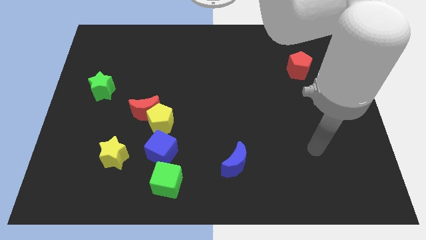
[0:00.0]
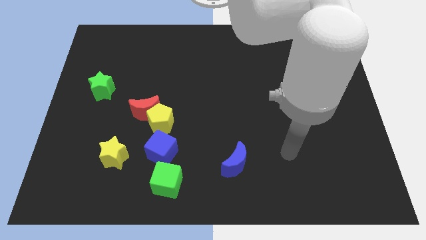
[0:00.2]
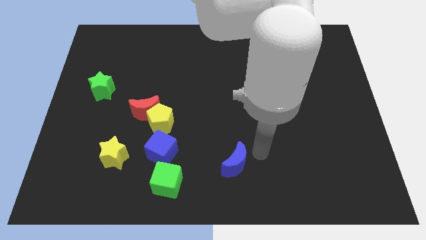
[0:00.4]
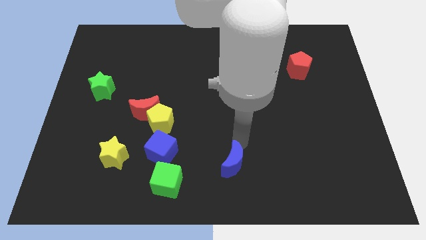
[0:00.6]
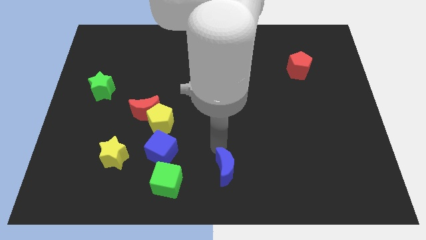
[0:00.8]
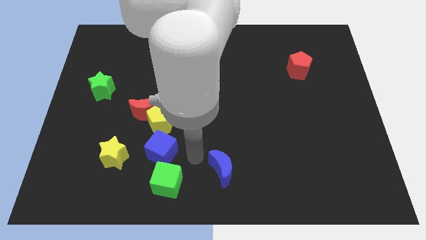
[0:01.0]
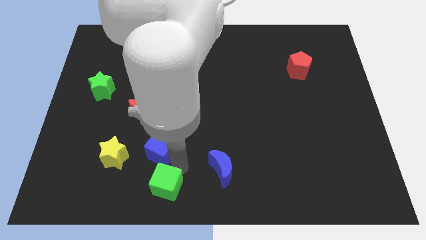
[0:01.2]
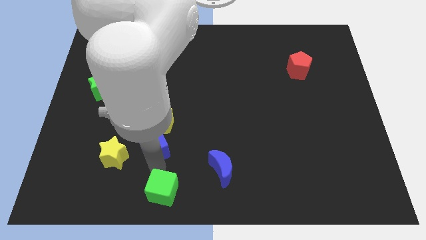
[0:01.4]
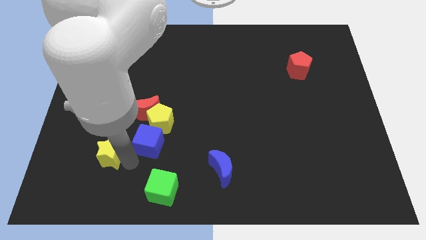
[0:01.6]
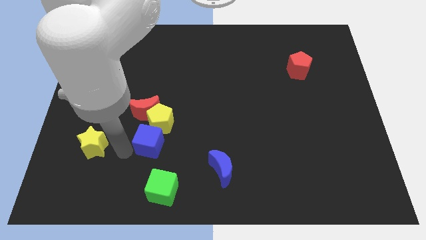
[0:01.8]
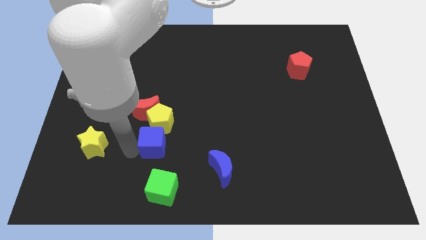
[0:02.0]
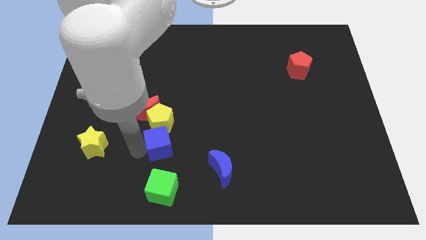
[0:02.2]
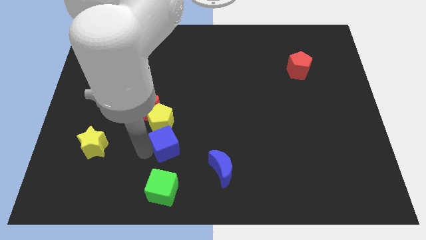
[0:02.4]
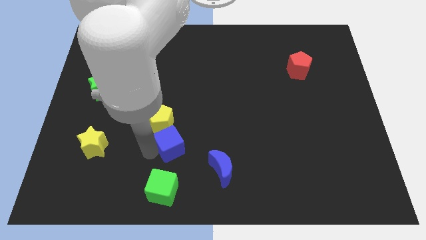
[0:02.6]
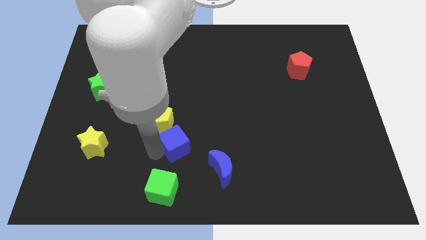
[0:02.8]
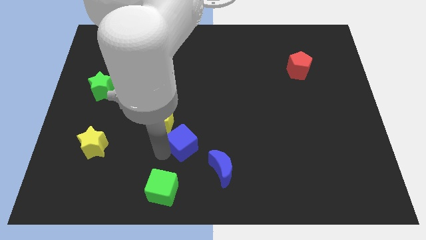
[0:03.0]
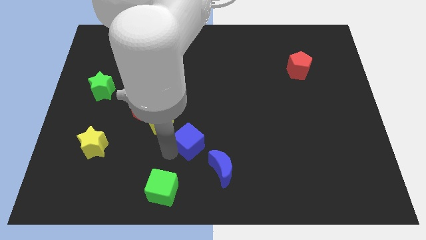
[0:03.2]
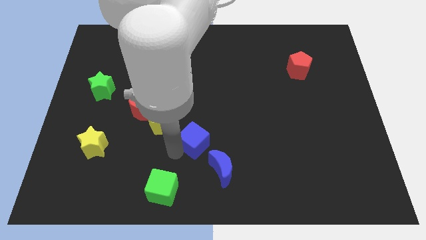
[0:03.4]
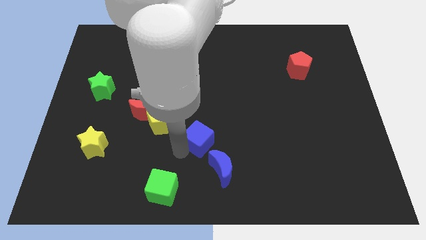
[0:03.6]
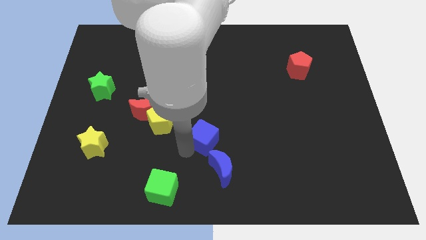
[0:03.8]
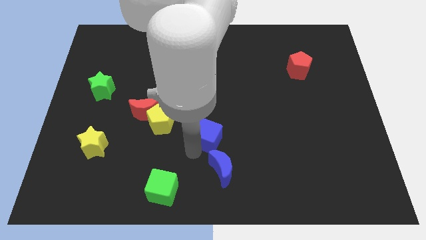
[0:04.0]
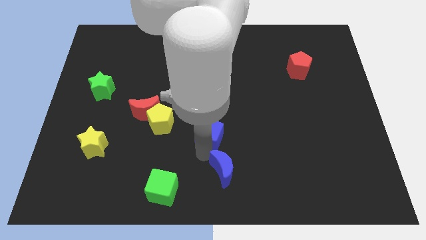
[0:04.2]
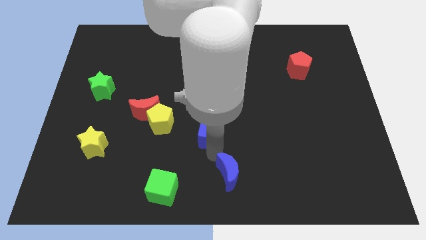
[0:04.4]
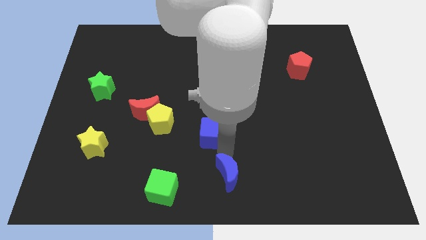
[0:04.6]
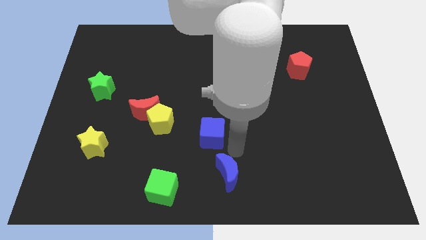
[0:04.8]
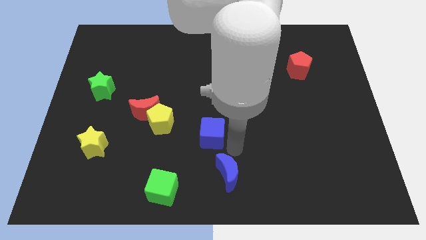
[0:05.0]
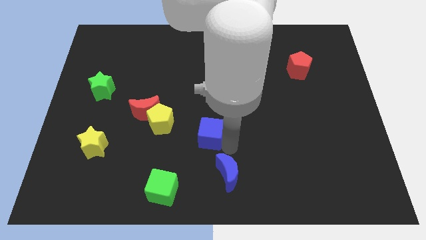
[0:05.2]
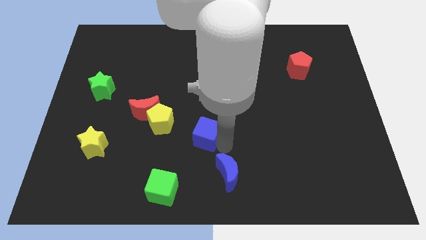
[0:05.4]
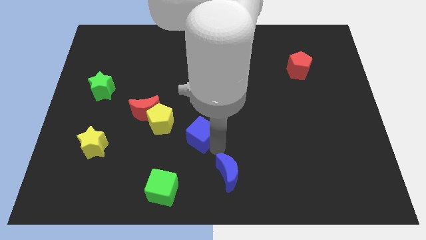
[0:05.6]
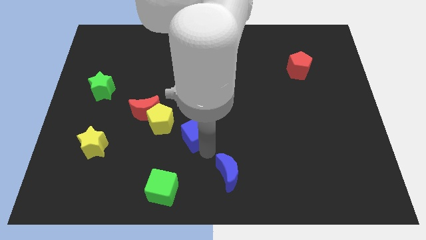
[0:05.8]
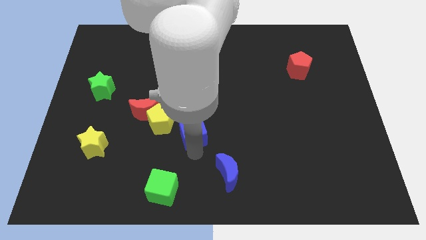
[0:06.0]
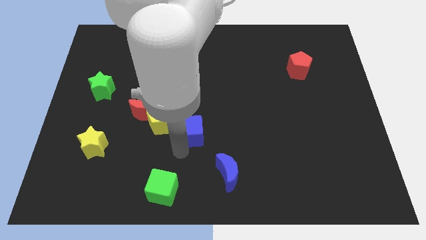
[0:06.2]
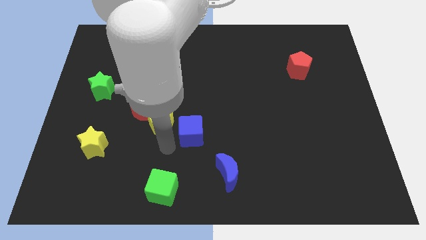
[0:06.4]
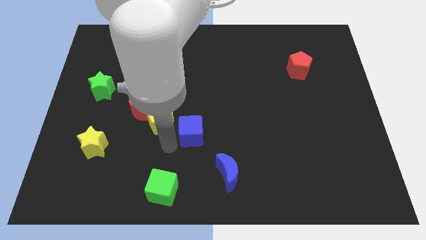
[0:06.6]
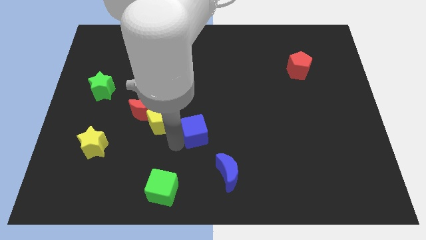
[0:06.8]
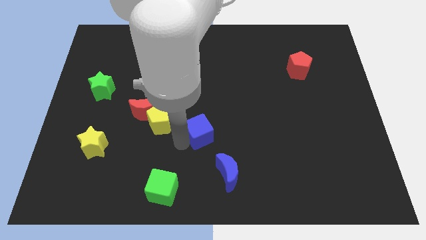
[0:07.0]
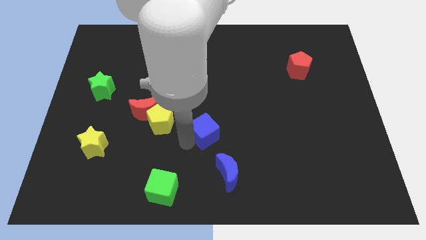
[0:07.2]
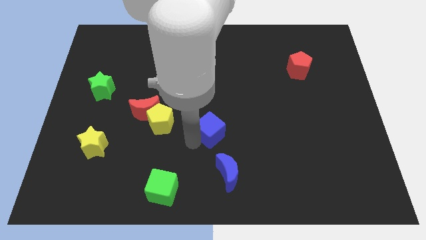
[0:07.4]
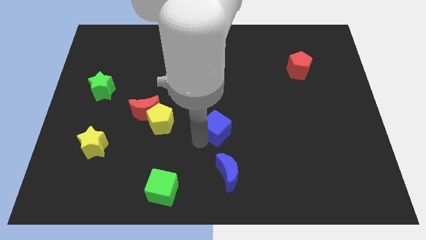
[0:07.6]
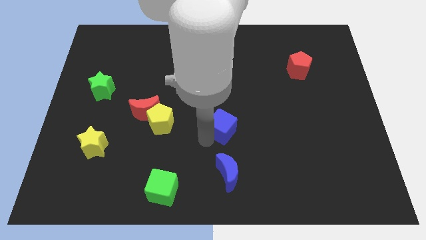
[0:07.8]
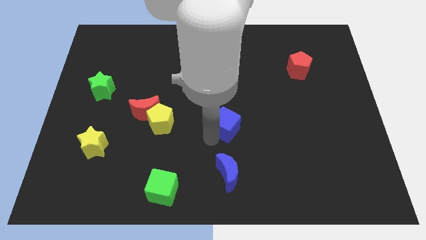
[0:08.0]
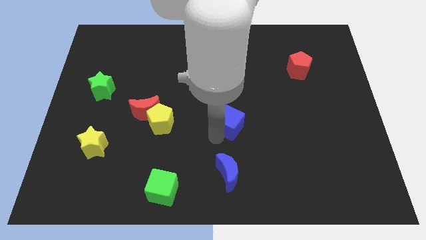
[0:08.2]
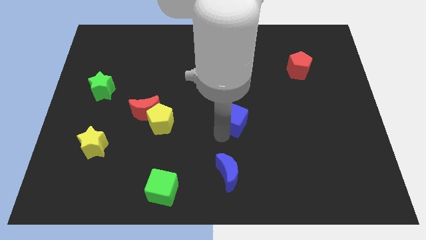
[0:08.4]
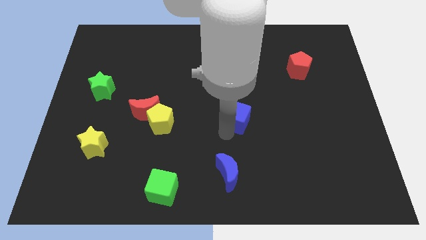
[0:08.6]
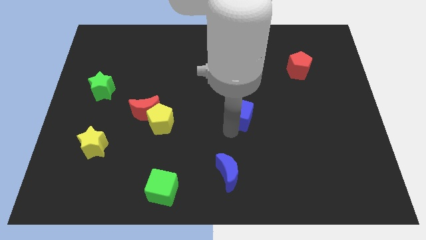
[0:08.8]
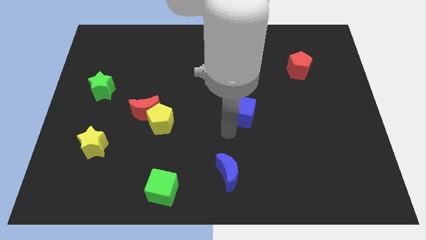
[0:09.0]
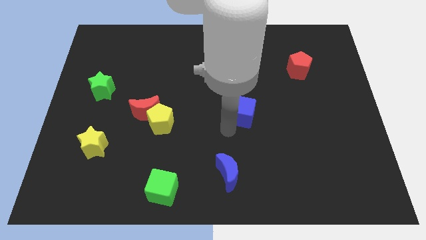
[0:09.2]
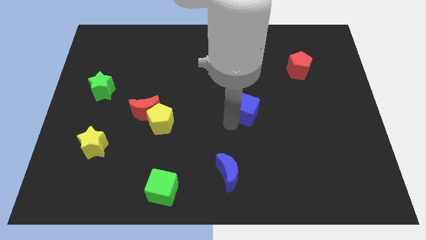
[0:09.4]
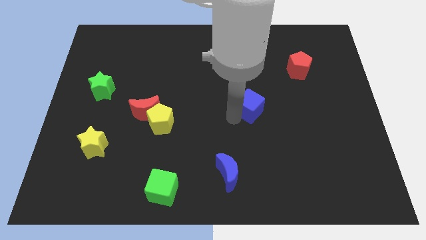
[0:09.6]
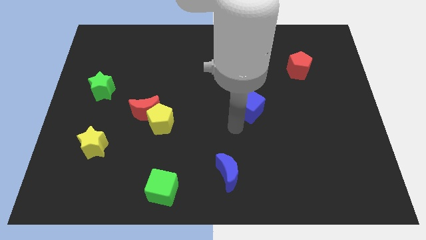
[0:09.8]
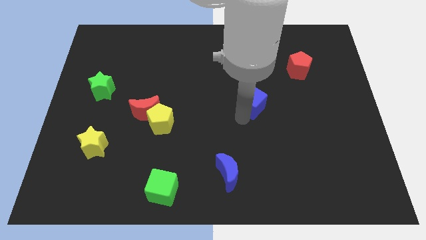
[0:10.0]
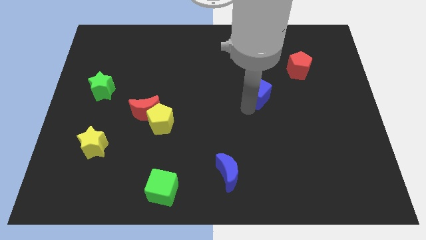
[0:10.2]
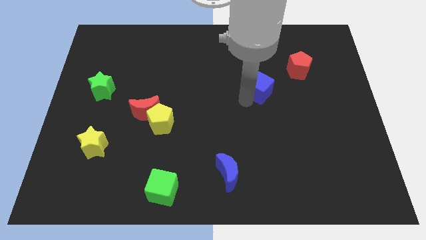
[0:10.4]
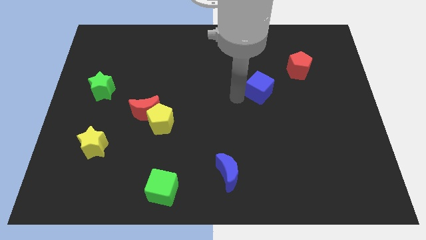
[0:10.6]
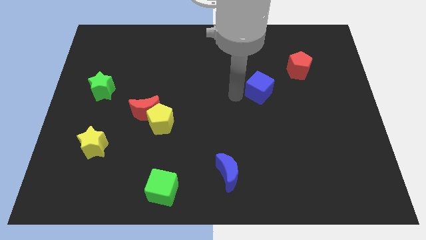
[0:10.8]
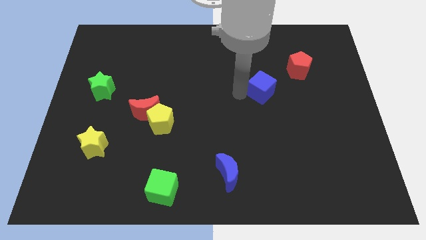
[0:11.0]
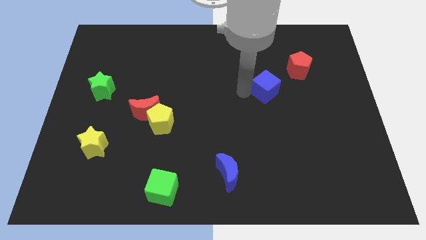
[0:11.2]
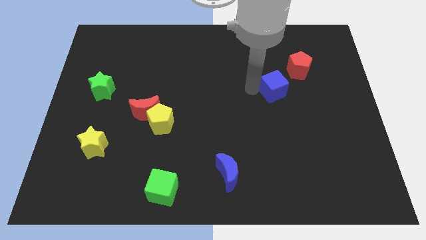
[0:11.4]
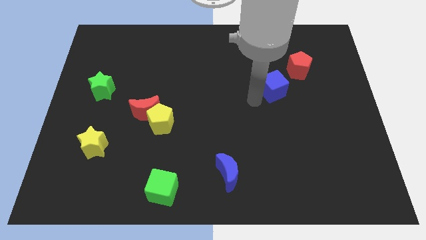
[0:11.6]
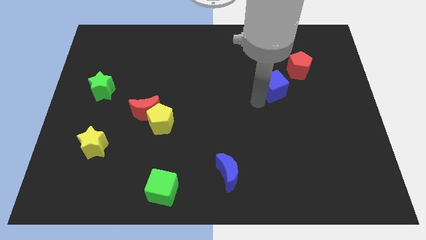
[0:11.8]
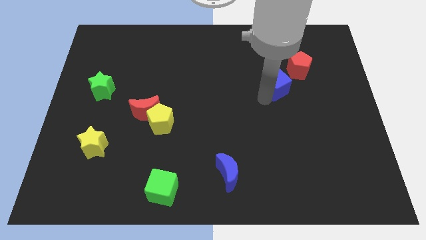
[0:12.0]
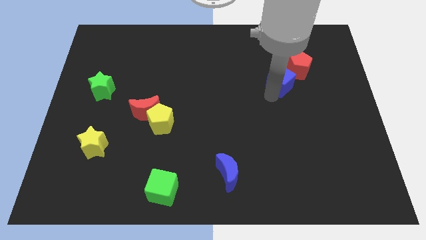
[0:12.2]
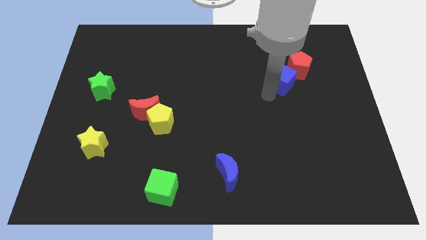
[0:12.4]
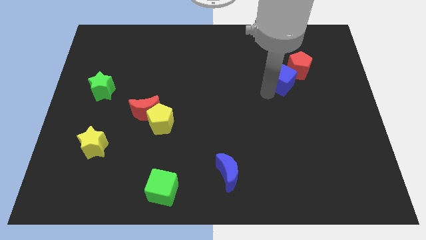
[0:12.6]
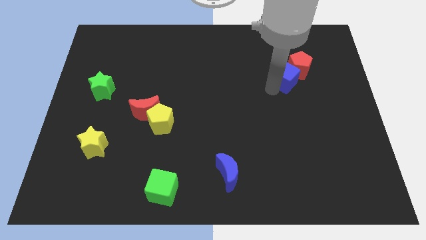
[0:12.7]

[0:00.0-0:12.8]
slide the blue cube close to the red pentagon

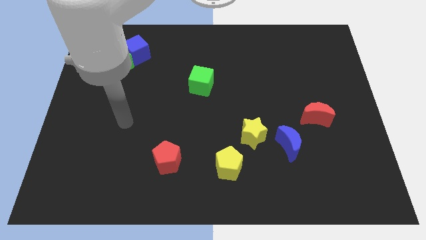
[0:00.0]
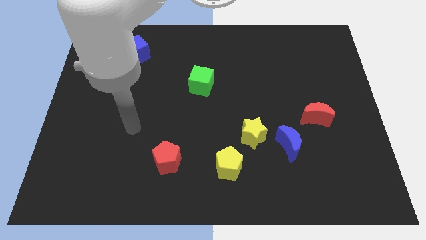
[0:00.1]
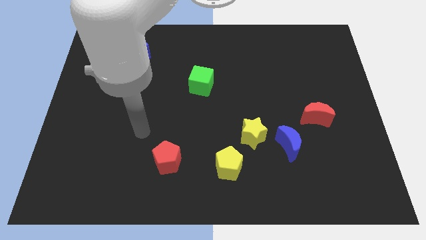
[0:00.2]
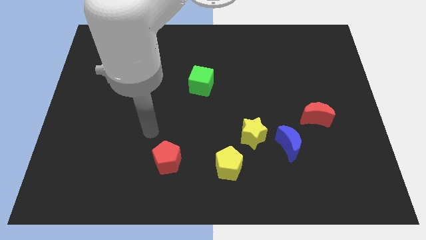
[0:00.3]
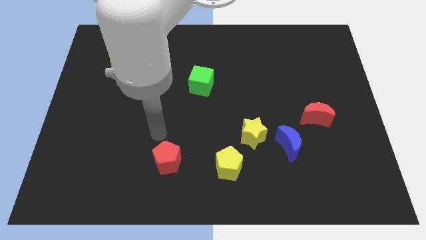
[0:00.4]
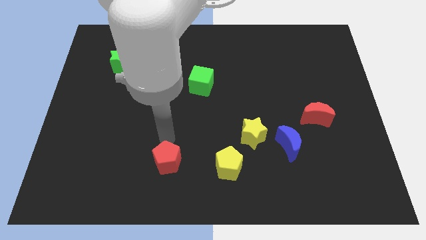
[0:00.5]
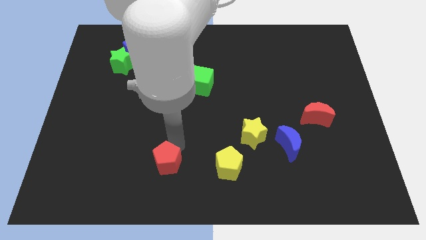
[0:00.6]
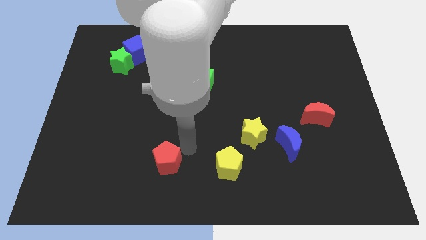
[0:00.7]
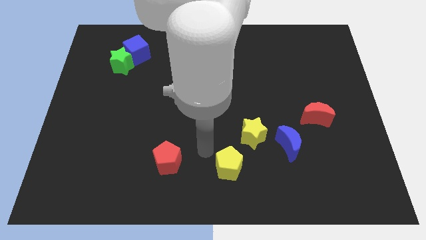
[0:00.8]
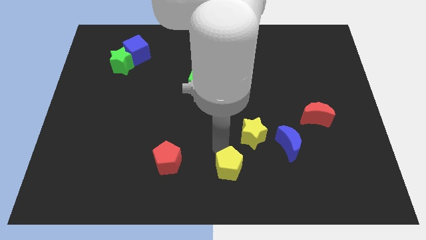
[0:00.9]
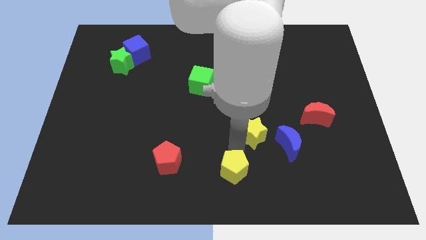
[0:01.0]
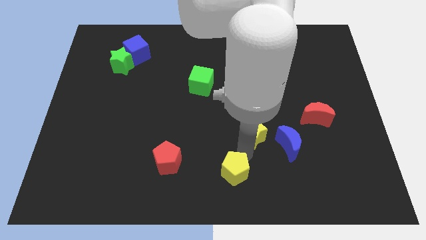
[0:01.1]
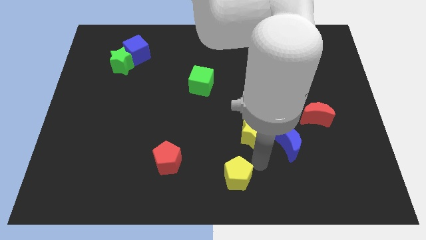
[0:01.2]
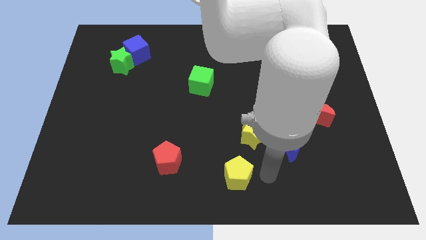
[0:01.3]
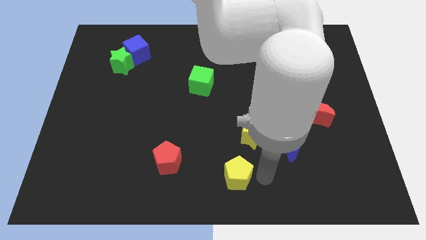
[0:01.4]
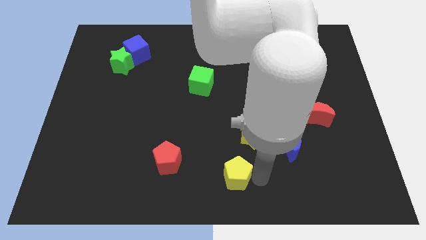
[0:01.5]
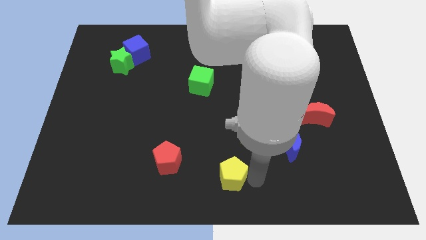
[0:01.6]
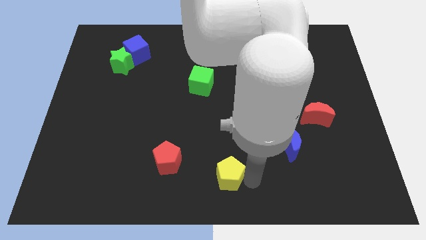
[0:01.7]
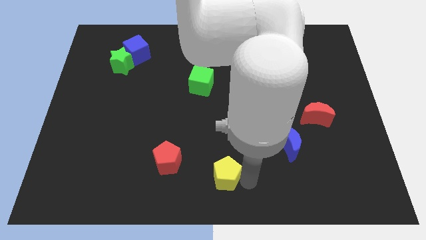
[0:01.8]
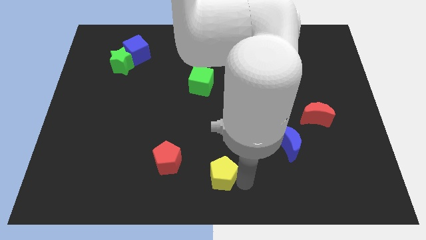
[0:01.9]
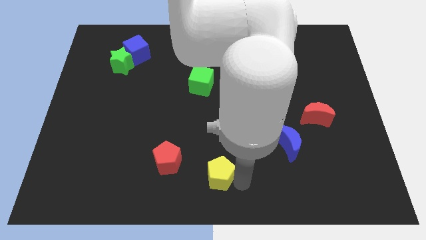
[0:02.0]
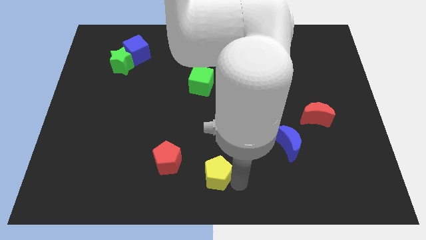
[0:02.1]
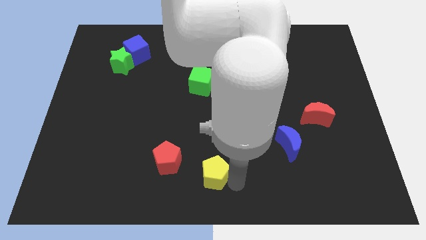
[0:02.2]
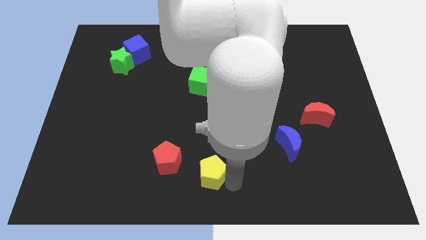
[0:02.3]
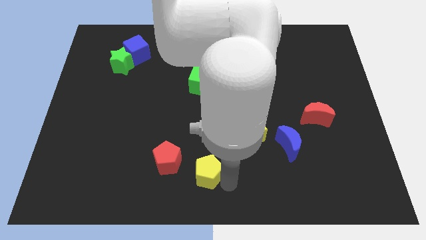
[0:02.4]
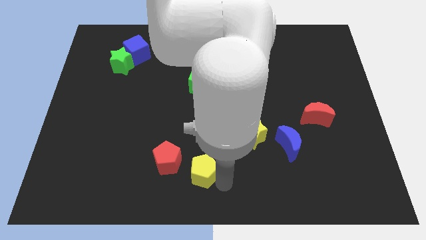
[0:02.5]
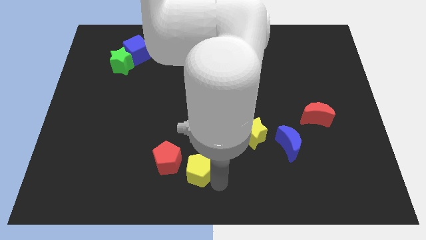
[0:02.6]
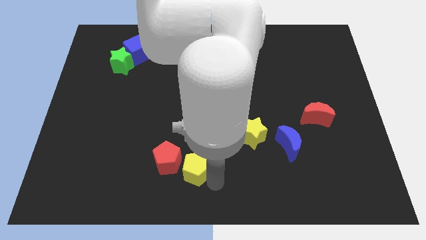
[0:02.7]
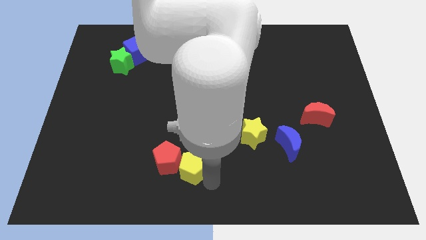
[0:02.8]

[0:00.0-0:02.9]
push the yellow pentagon next to the red pentagon
